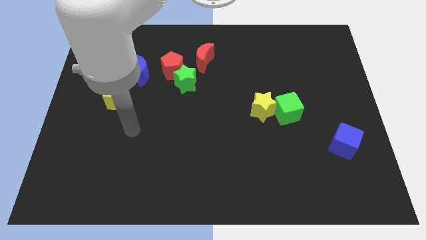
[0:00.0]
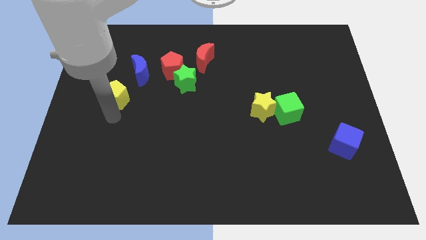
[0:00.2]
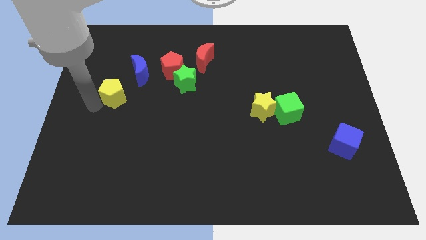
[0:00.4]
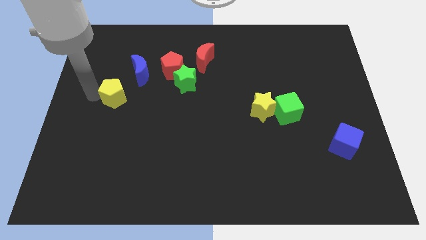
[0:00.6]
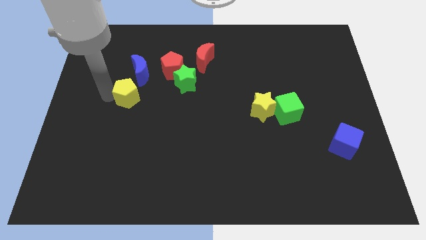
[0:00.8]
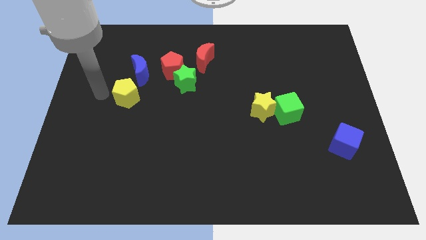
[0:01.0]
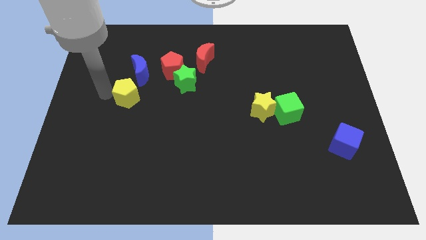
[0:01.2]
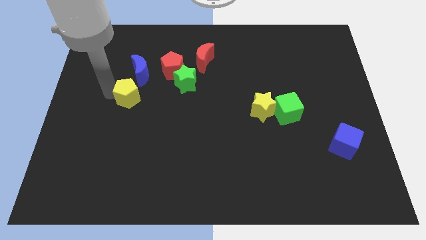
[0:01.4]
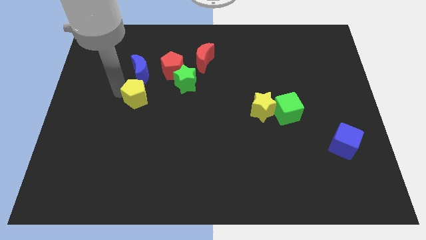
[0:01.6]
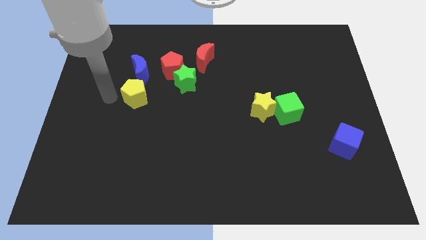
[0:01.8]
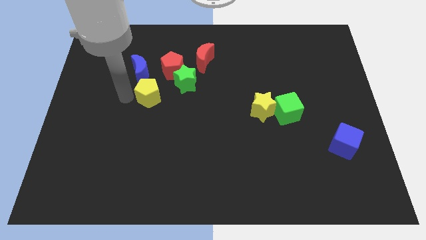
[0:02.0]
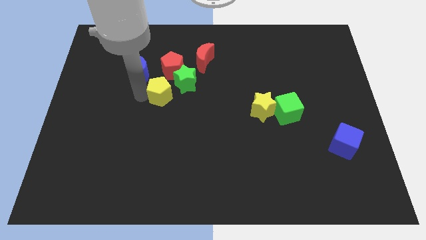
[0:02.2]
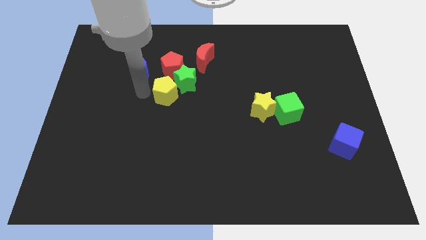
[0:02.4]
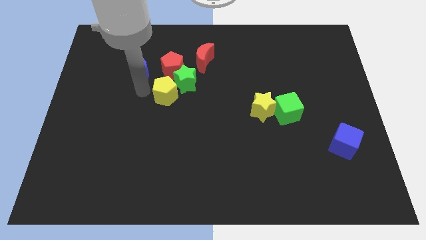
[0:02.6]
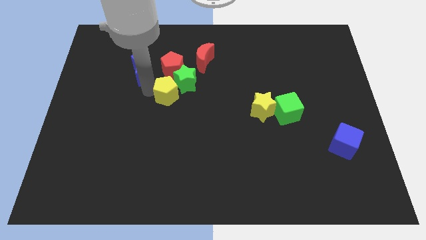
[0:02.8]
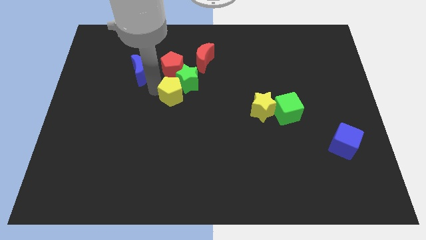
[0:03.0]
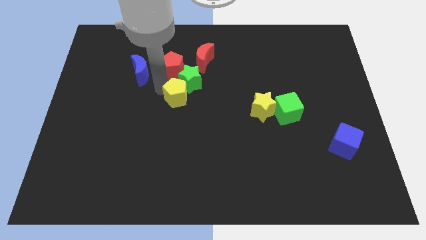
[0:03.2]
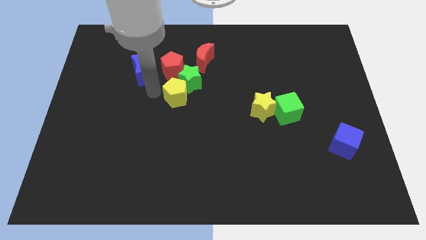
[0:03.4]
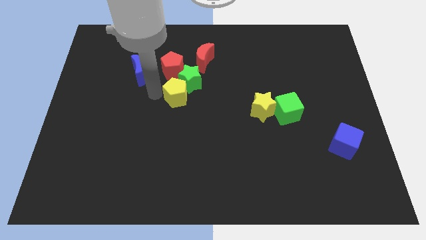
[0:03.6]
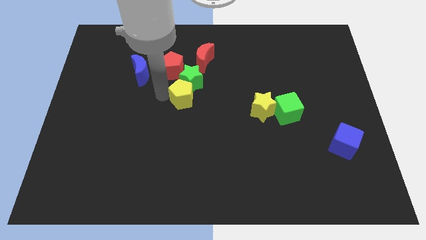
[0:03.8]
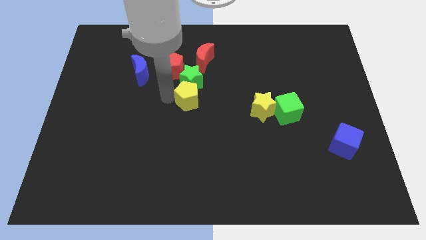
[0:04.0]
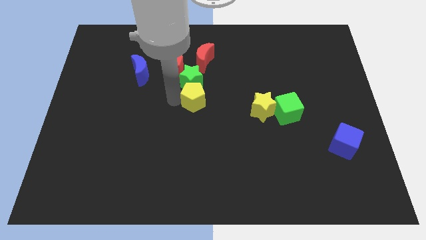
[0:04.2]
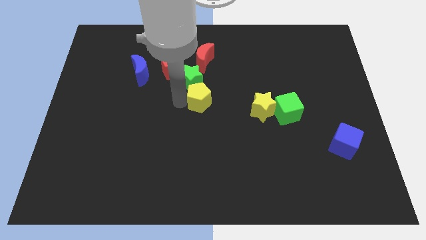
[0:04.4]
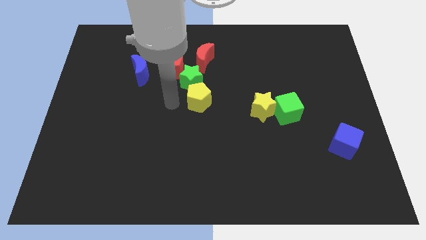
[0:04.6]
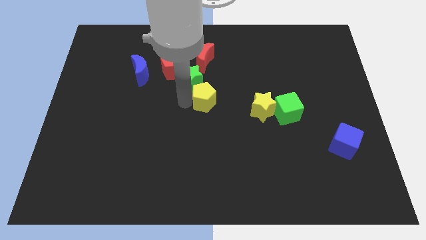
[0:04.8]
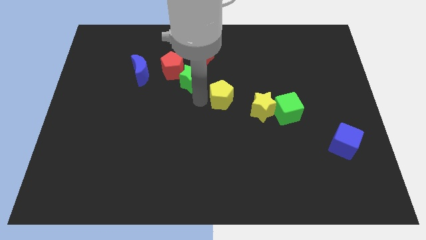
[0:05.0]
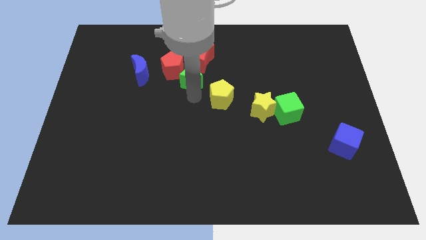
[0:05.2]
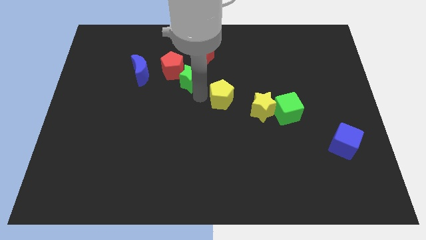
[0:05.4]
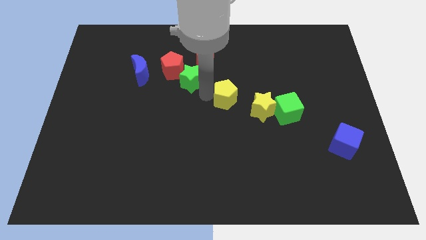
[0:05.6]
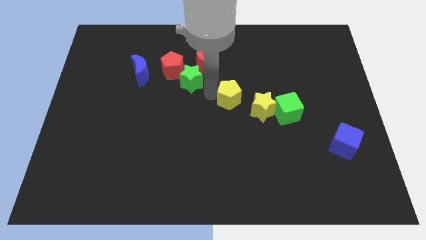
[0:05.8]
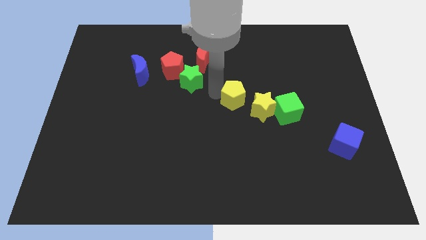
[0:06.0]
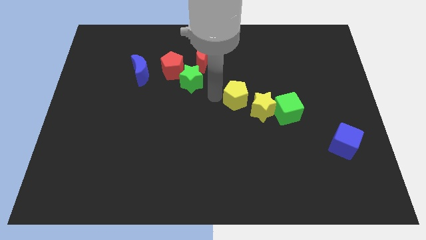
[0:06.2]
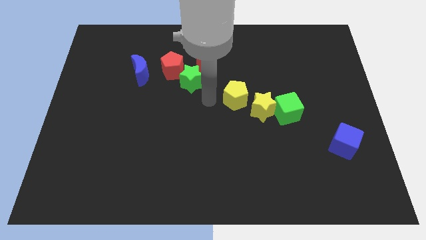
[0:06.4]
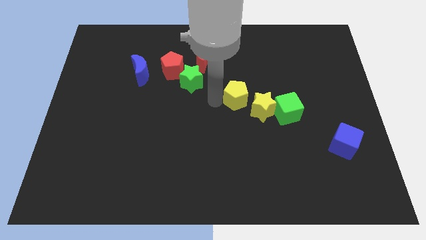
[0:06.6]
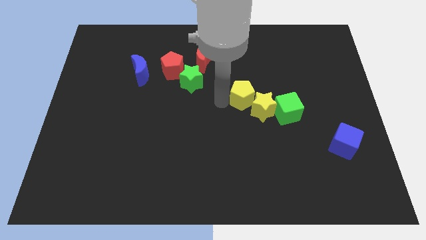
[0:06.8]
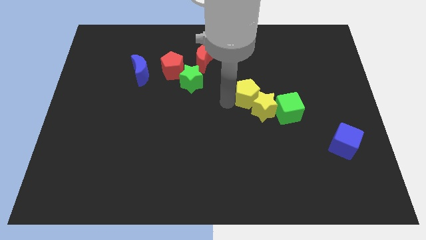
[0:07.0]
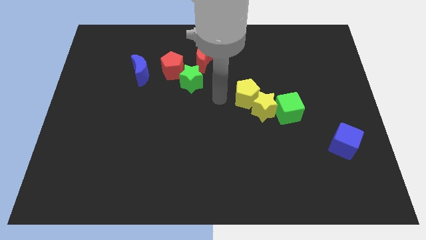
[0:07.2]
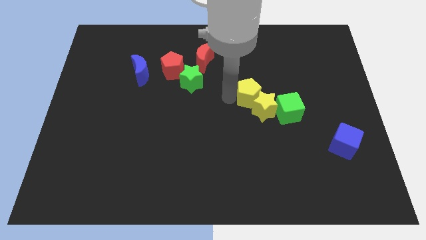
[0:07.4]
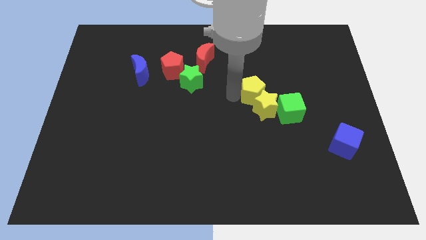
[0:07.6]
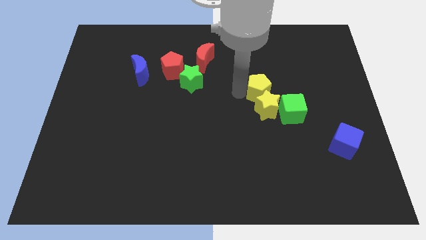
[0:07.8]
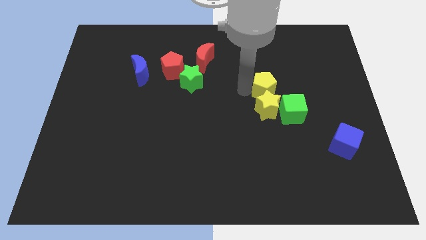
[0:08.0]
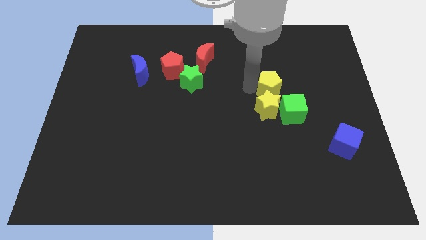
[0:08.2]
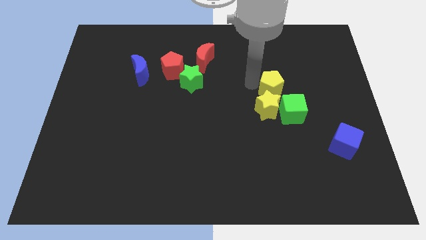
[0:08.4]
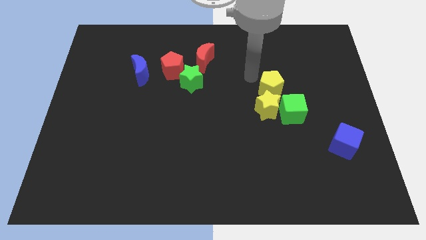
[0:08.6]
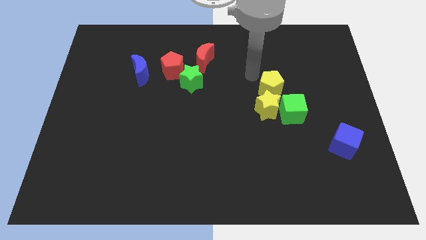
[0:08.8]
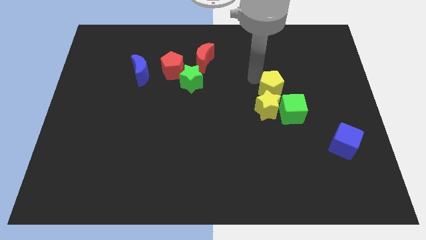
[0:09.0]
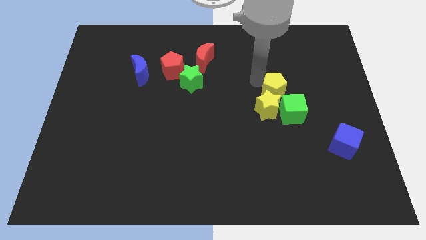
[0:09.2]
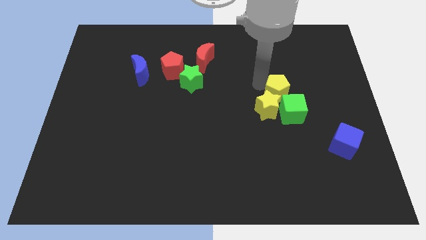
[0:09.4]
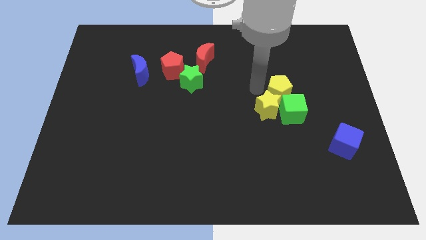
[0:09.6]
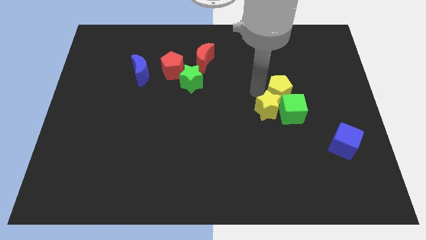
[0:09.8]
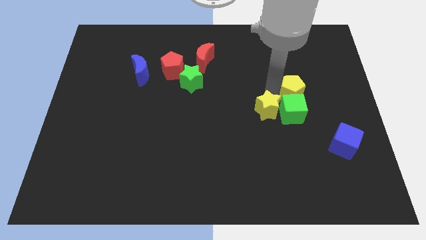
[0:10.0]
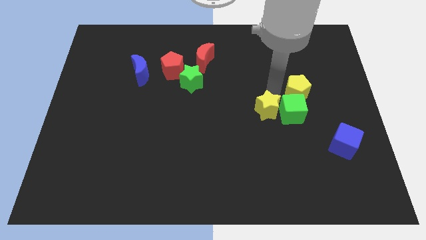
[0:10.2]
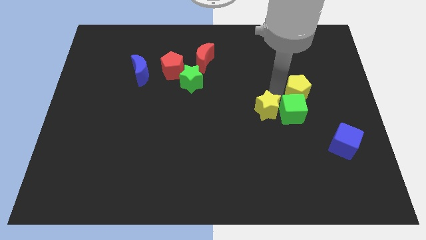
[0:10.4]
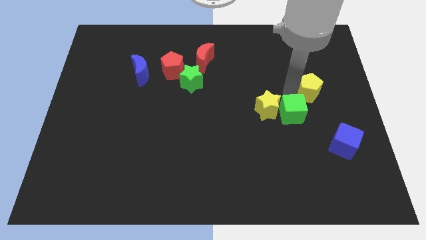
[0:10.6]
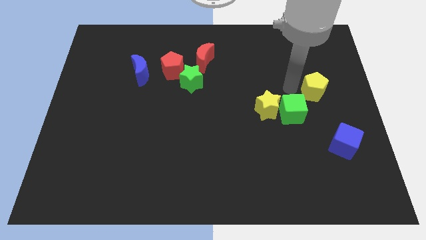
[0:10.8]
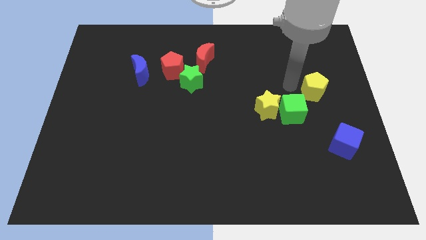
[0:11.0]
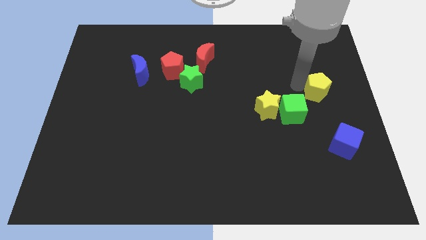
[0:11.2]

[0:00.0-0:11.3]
put the yellow pentagon to the center right
